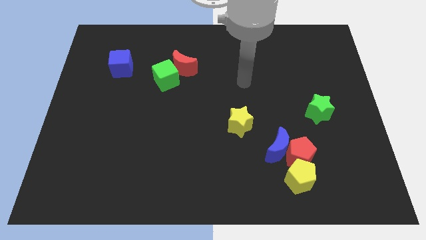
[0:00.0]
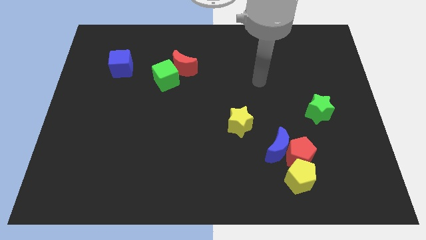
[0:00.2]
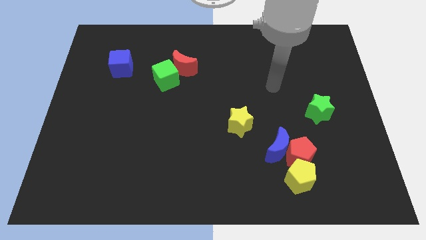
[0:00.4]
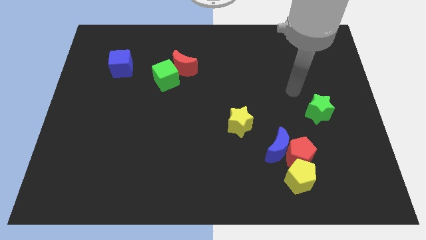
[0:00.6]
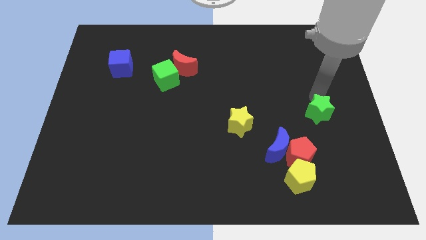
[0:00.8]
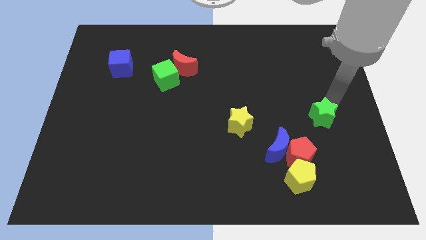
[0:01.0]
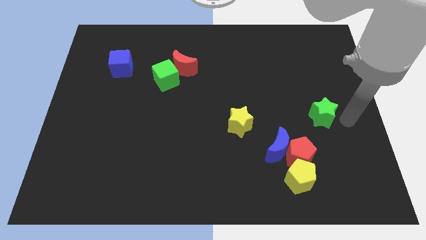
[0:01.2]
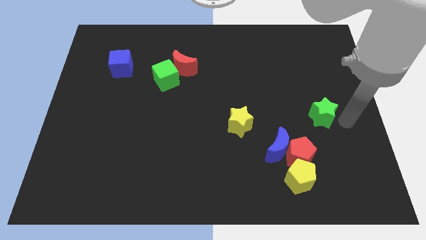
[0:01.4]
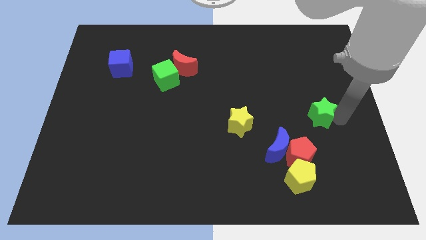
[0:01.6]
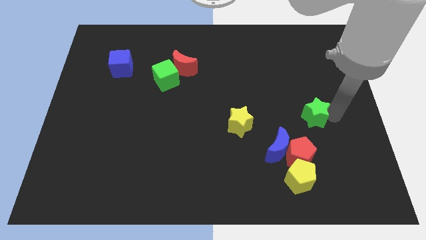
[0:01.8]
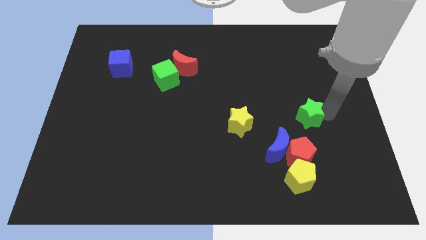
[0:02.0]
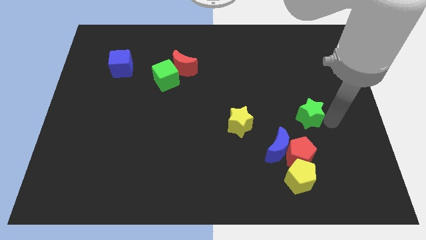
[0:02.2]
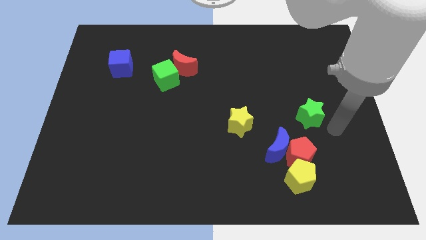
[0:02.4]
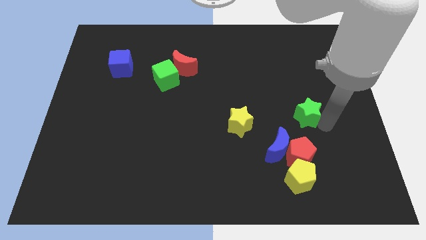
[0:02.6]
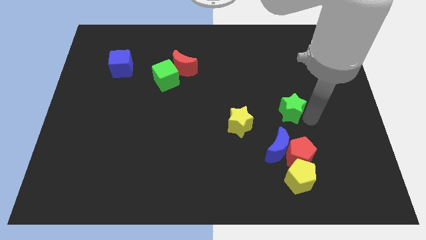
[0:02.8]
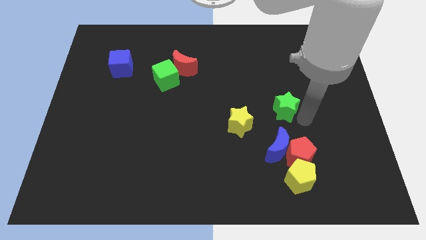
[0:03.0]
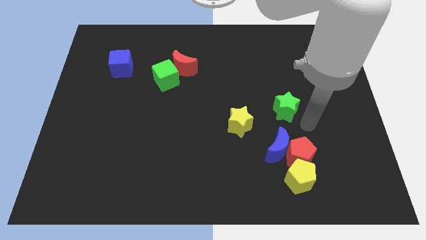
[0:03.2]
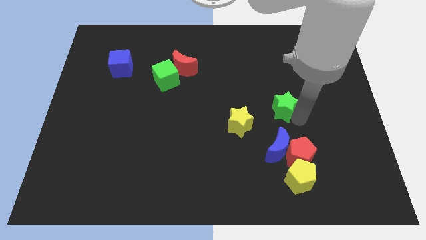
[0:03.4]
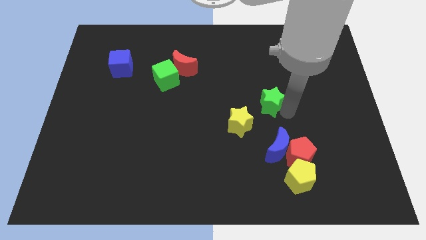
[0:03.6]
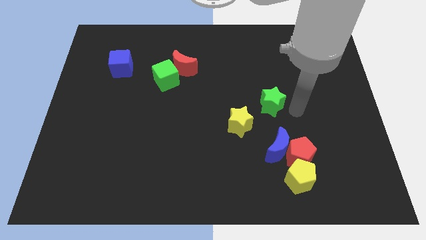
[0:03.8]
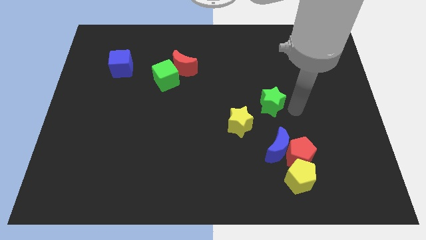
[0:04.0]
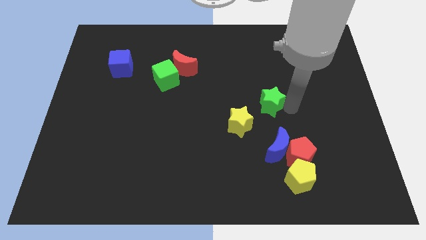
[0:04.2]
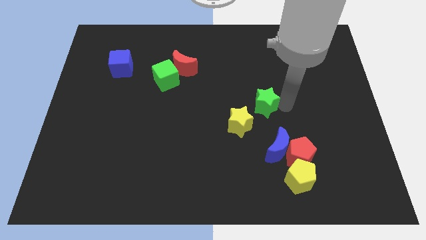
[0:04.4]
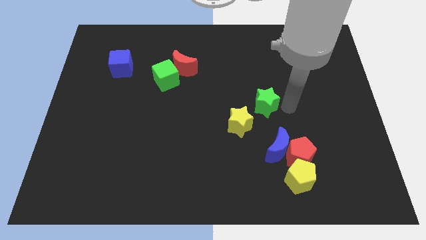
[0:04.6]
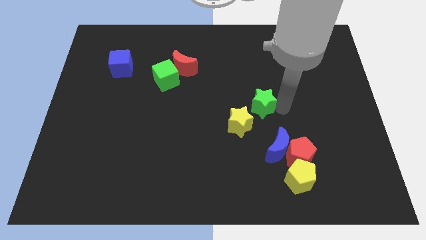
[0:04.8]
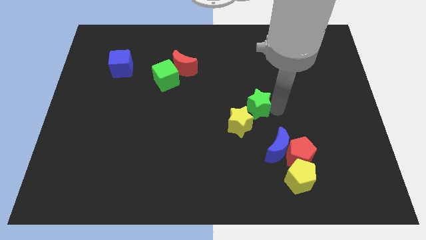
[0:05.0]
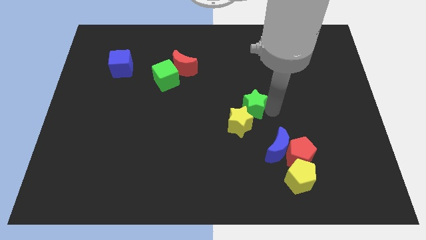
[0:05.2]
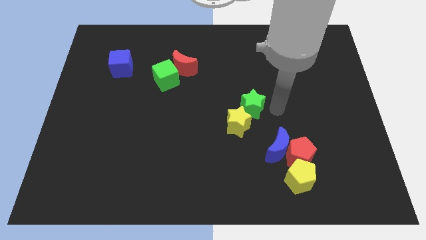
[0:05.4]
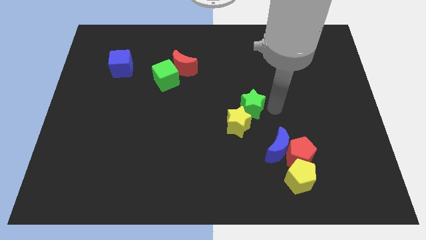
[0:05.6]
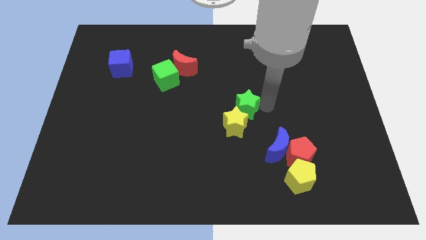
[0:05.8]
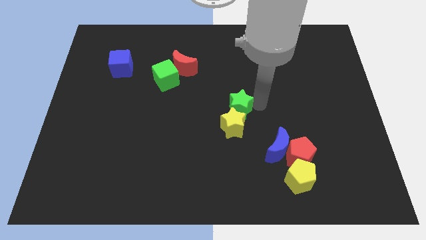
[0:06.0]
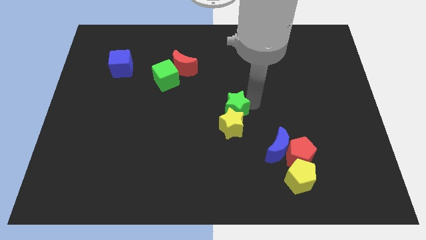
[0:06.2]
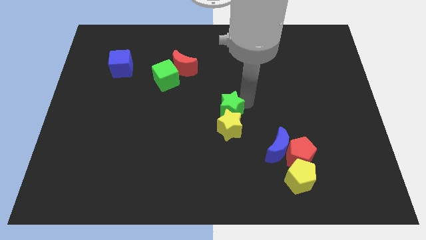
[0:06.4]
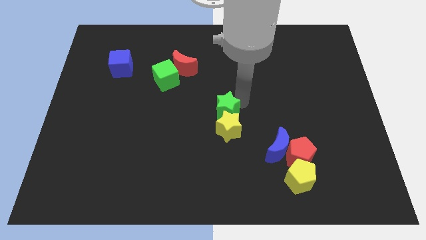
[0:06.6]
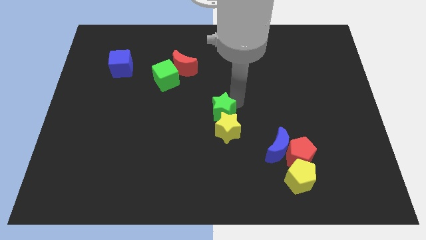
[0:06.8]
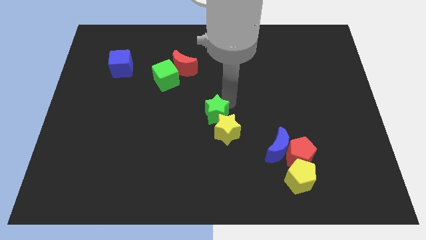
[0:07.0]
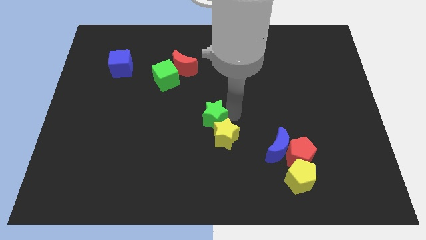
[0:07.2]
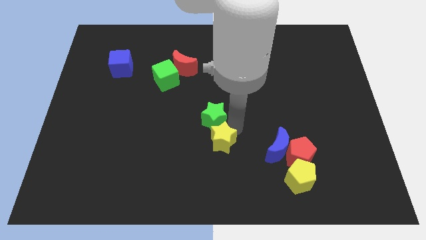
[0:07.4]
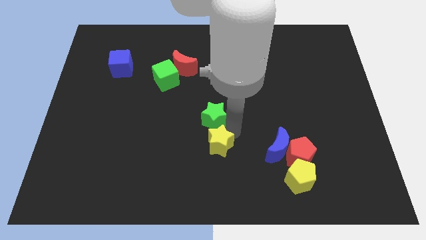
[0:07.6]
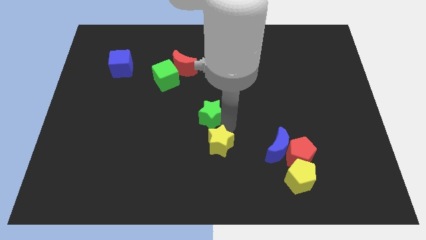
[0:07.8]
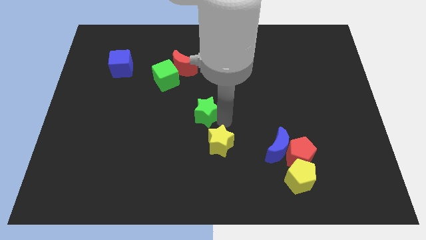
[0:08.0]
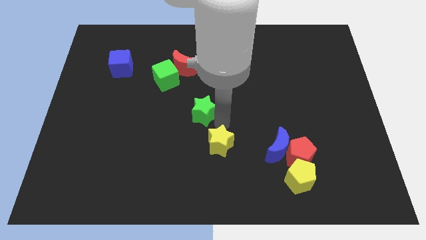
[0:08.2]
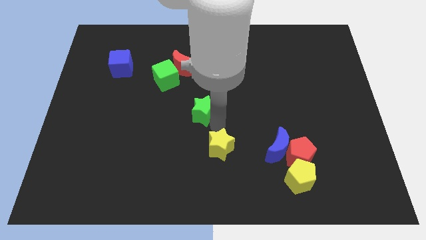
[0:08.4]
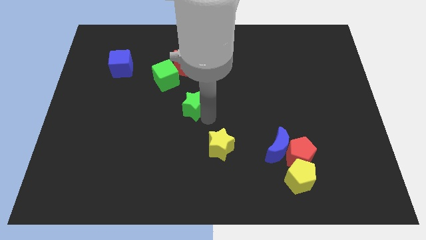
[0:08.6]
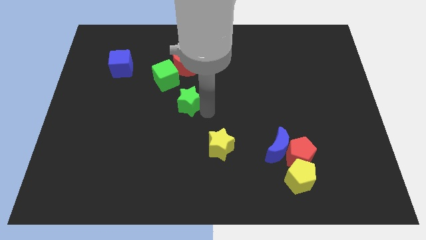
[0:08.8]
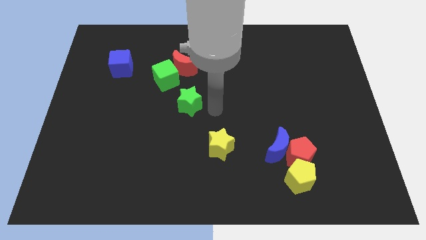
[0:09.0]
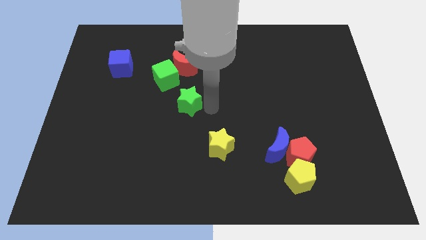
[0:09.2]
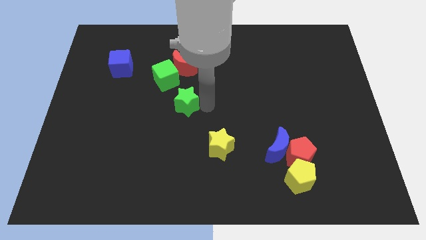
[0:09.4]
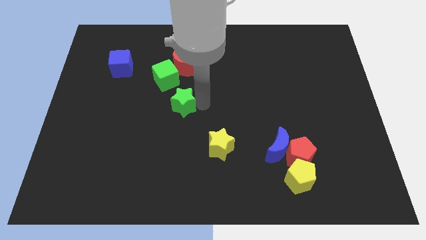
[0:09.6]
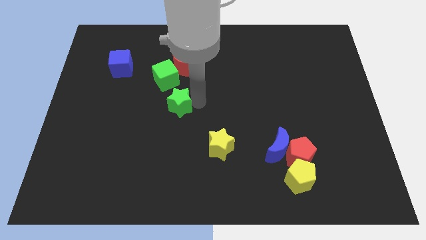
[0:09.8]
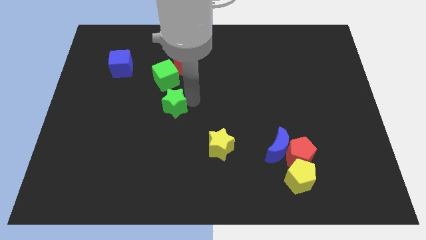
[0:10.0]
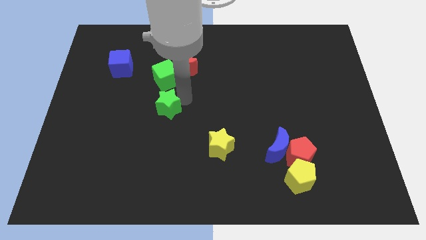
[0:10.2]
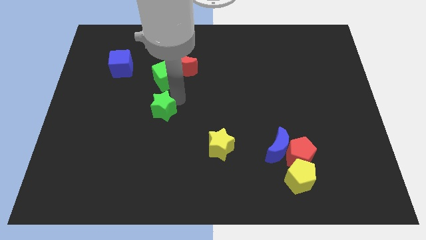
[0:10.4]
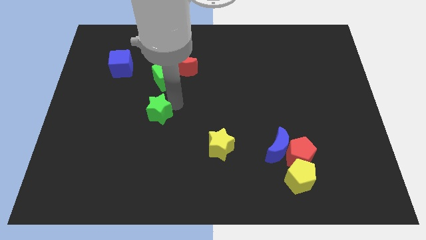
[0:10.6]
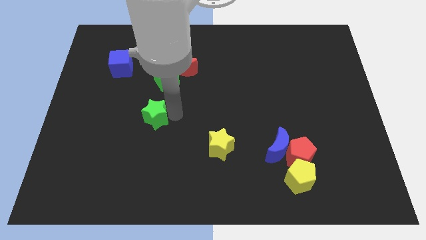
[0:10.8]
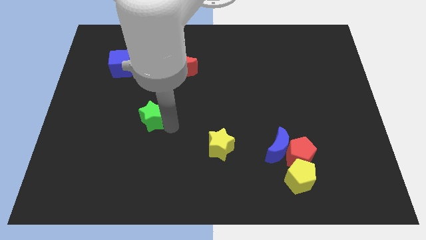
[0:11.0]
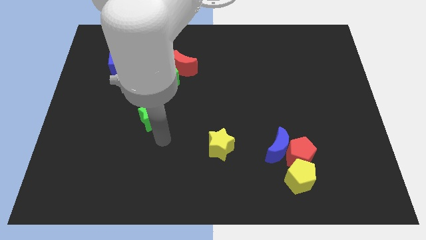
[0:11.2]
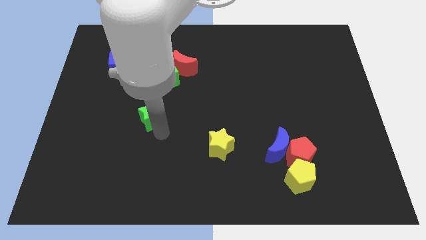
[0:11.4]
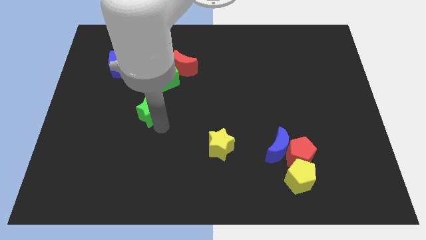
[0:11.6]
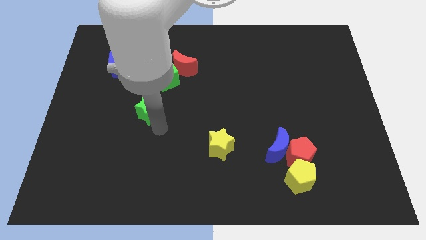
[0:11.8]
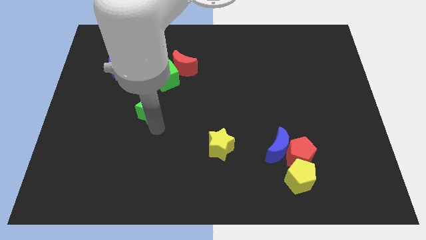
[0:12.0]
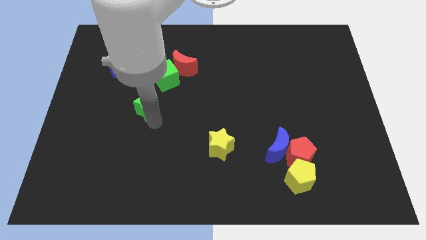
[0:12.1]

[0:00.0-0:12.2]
push the green star to the bottom left side of the green cube
